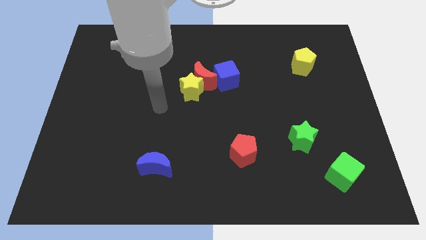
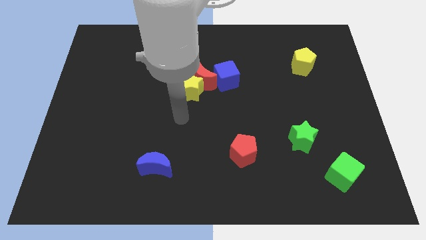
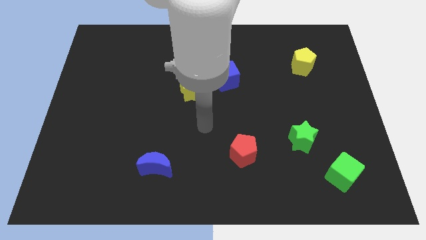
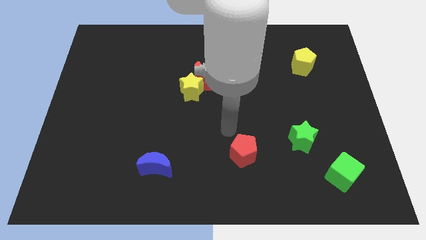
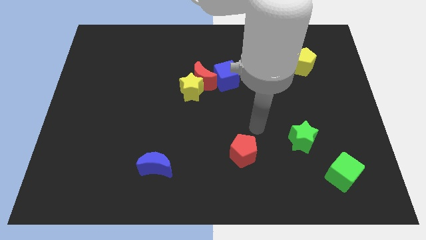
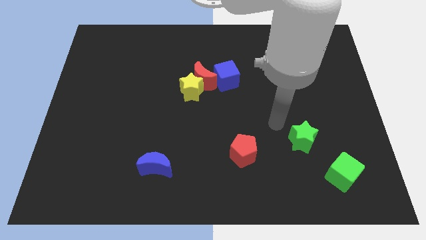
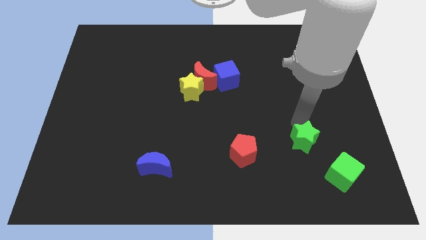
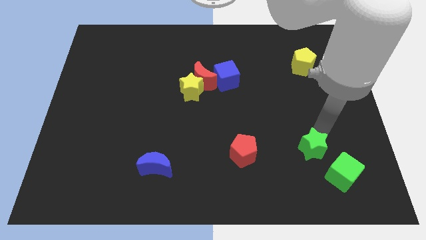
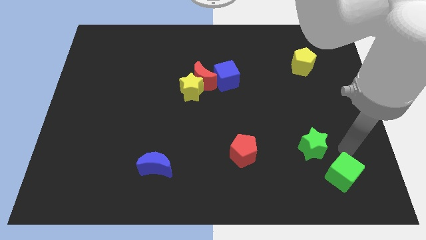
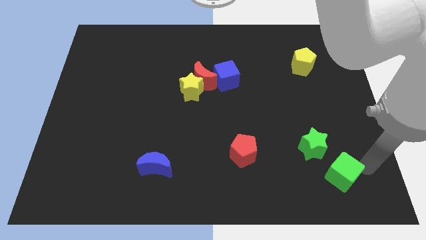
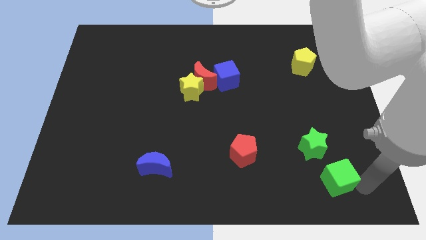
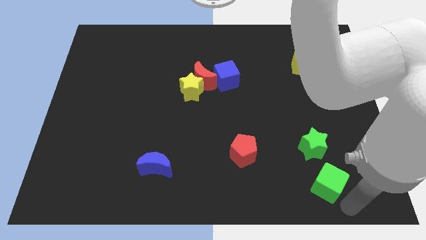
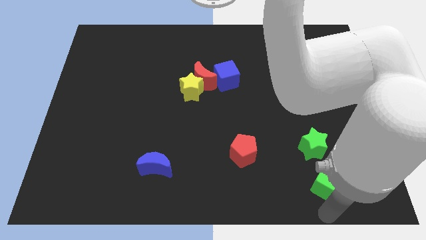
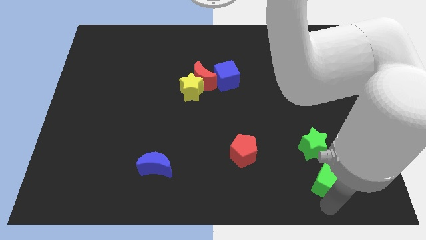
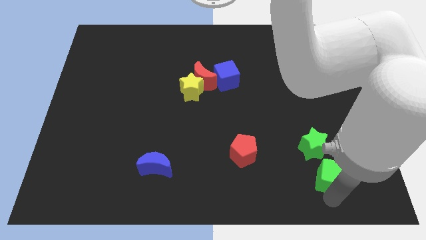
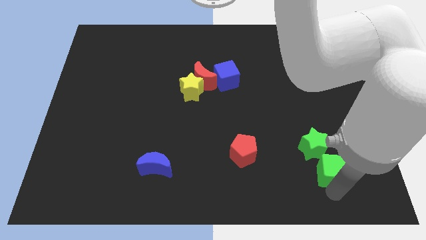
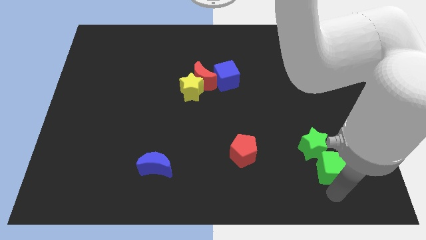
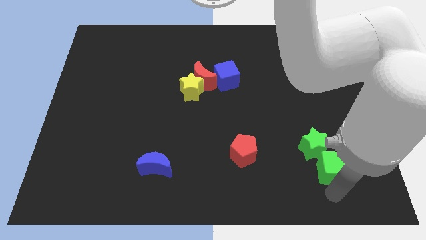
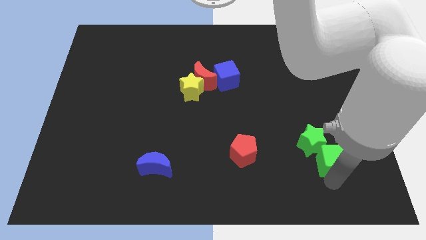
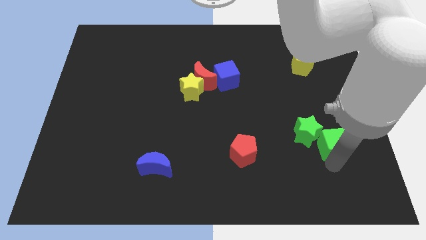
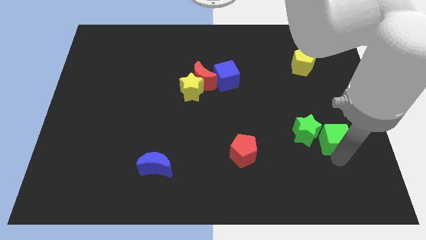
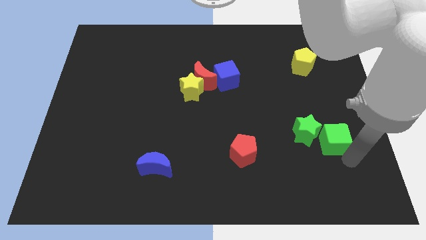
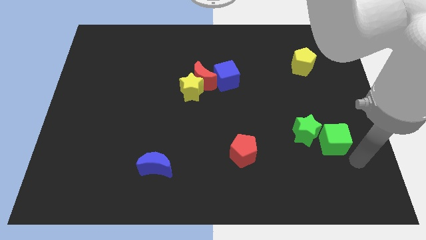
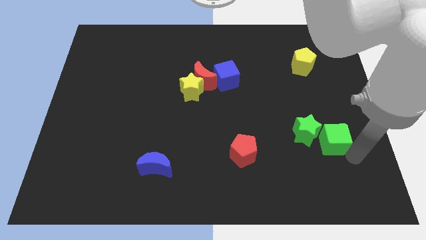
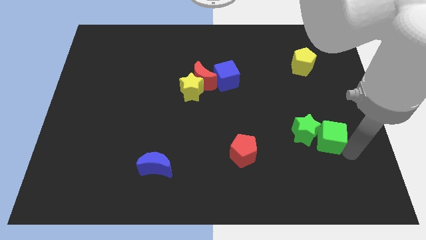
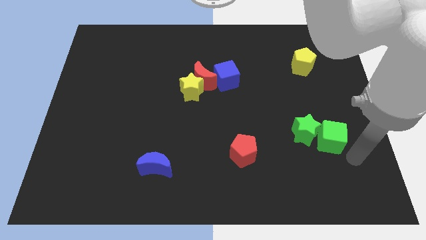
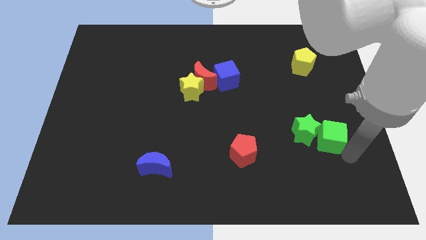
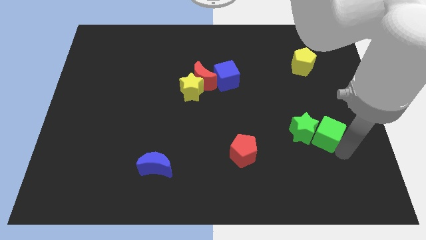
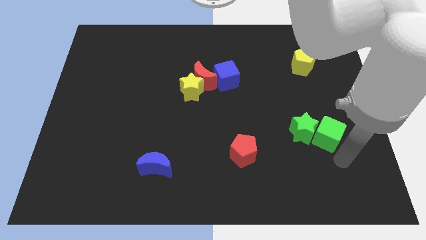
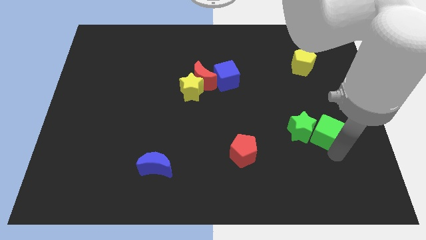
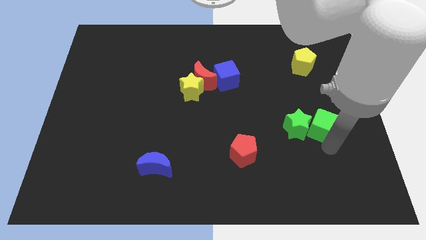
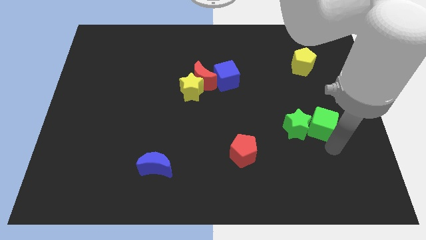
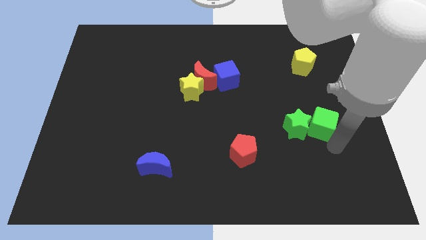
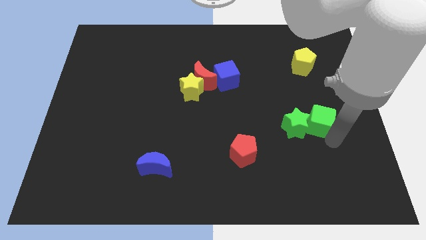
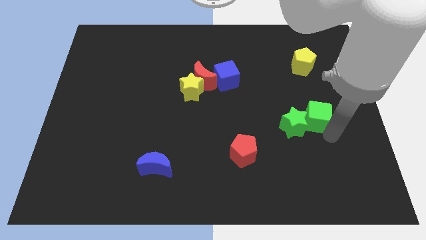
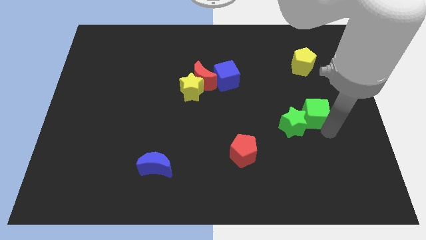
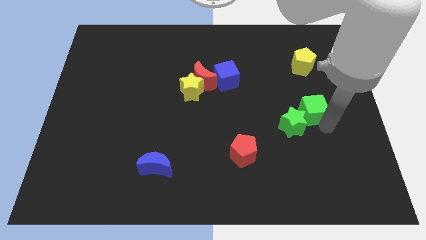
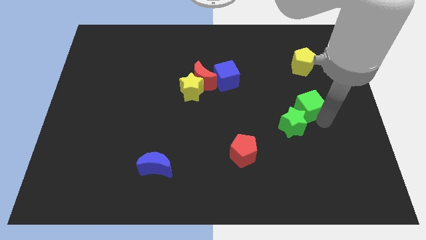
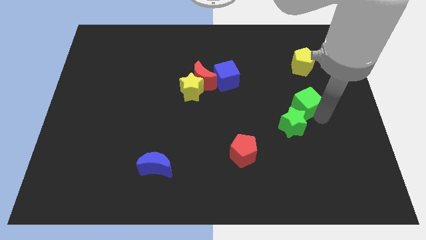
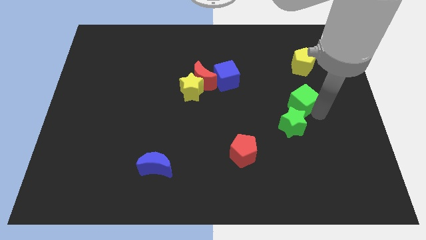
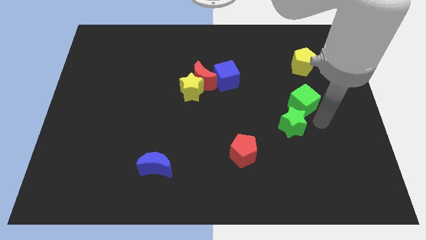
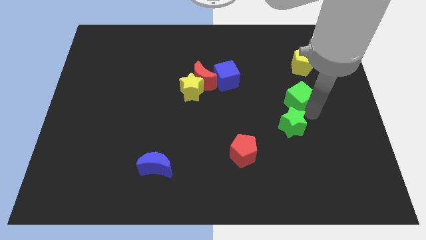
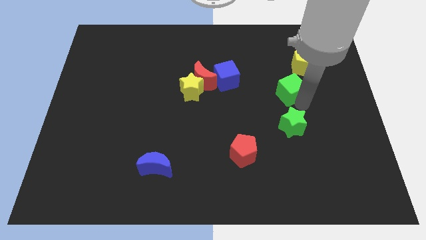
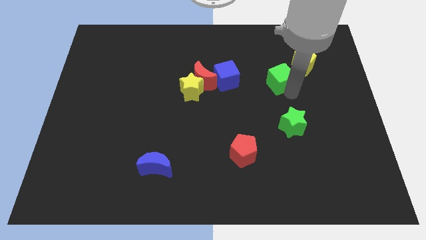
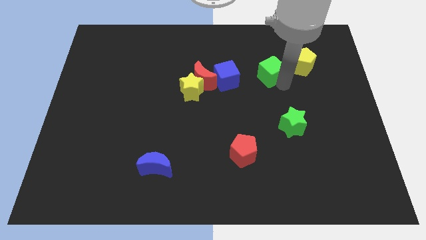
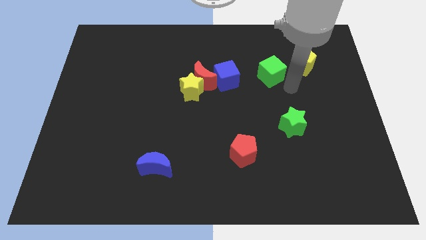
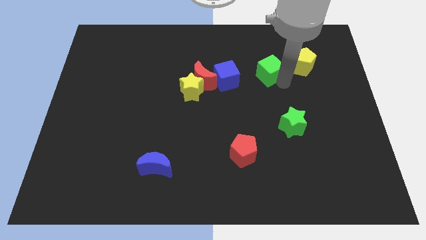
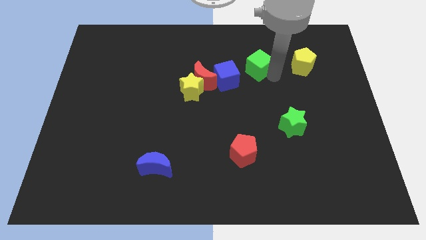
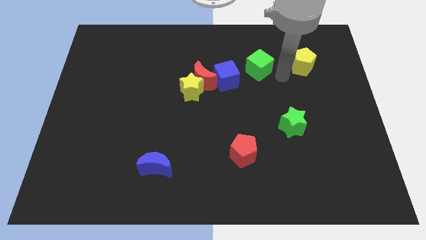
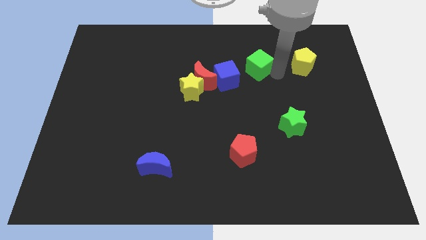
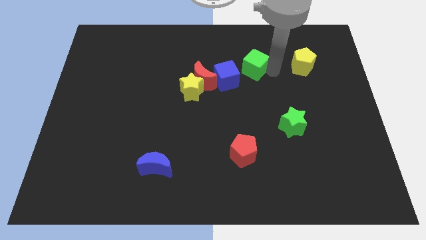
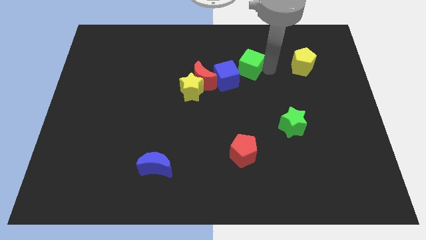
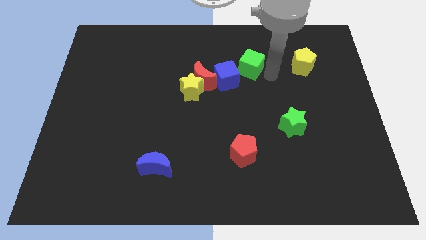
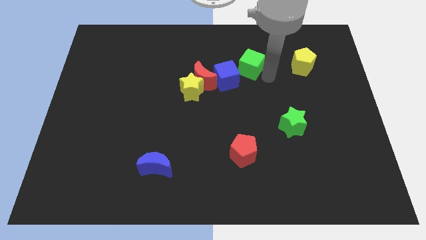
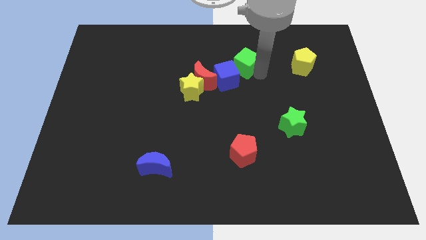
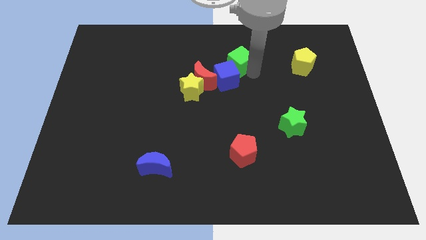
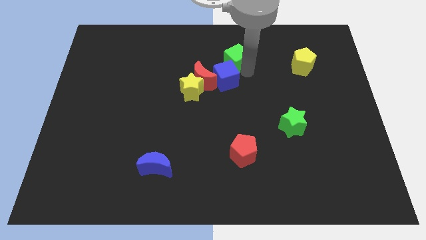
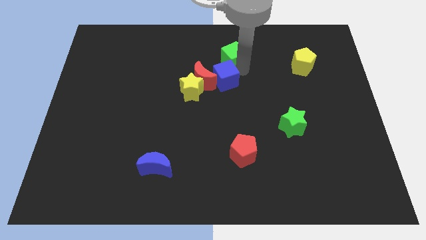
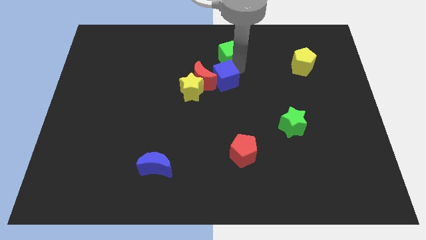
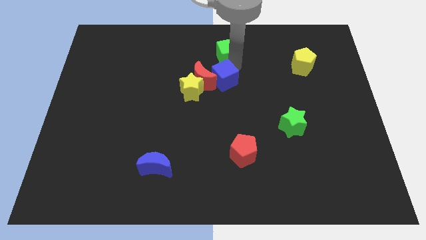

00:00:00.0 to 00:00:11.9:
move the green cube to the top side

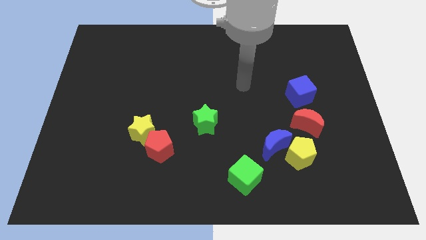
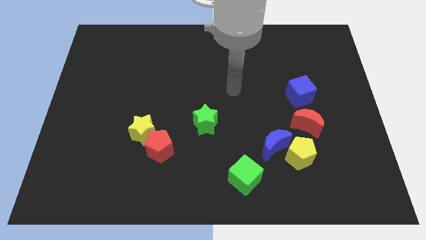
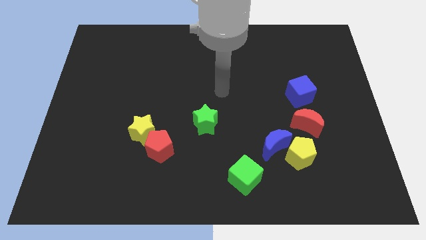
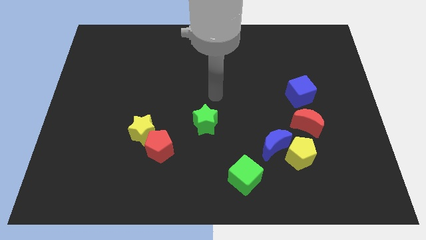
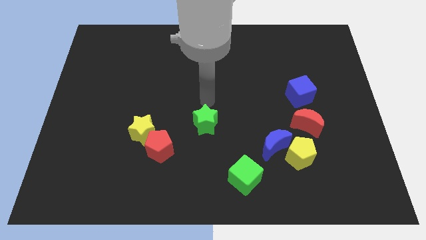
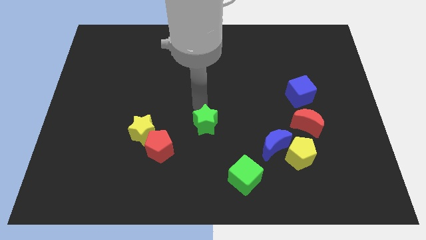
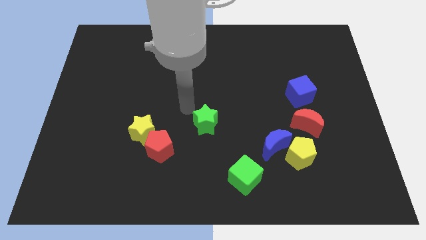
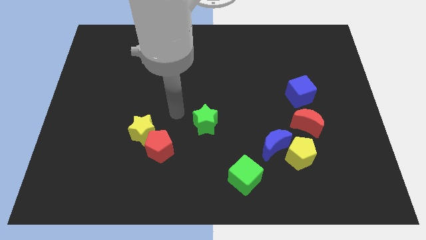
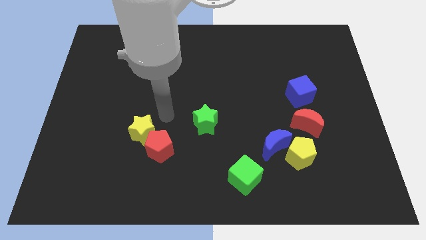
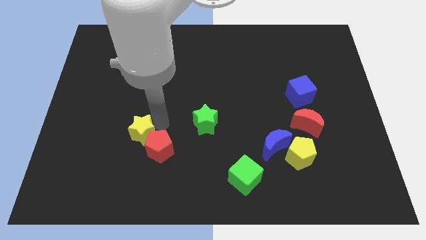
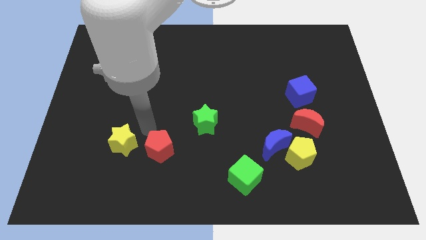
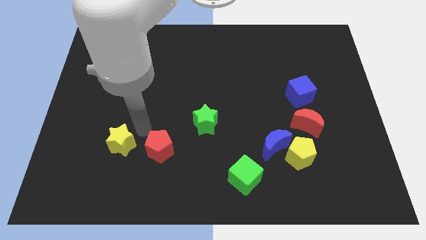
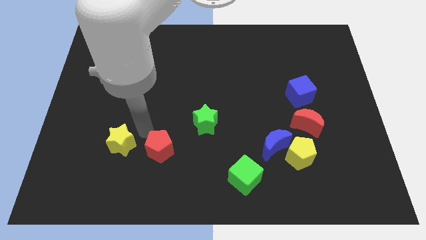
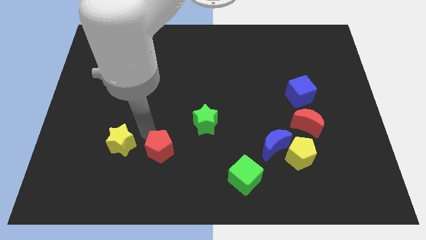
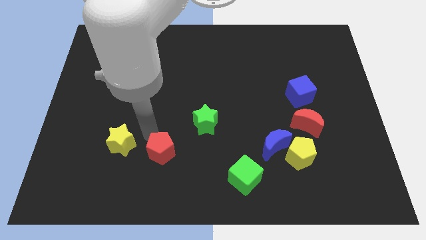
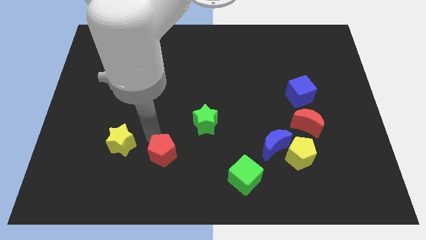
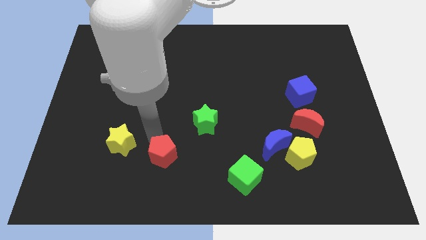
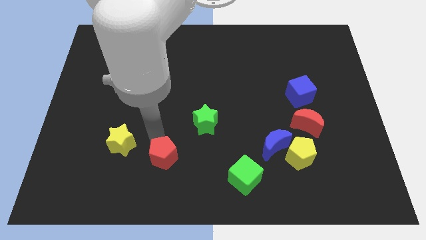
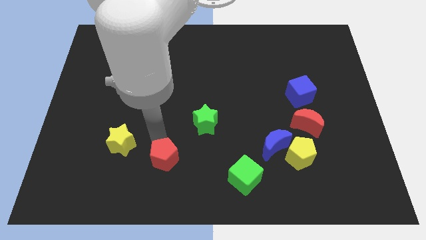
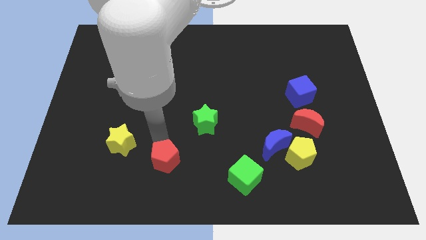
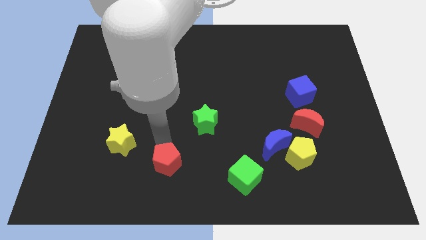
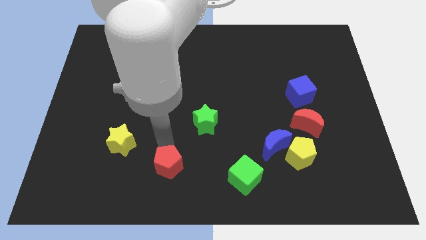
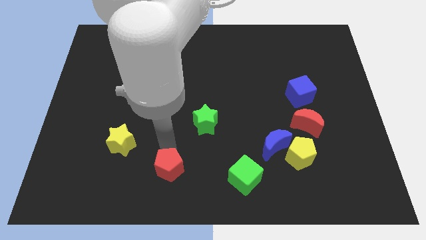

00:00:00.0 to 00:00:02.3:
move the red pentagon to the bottom side
